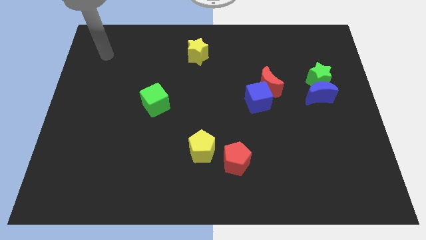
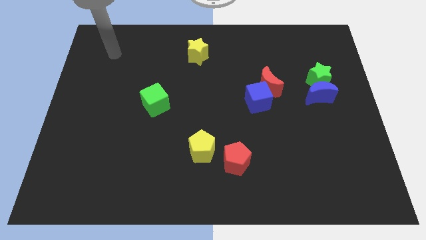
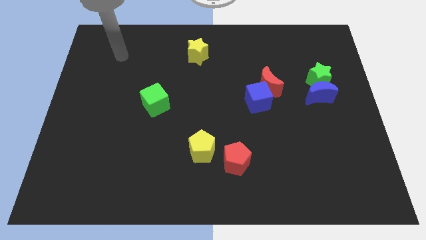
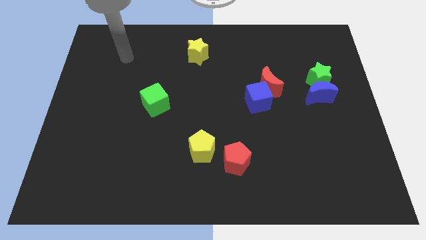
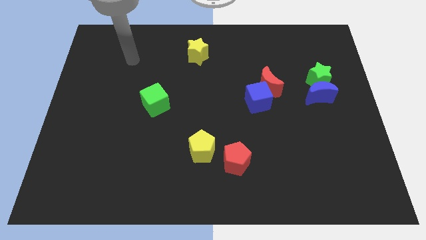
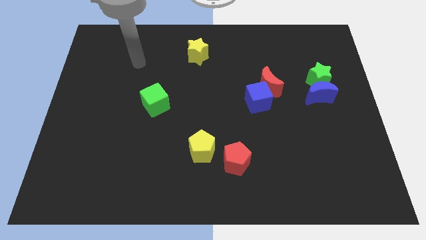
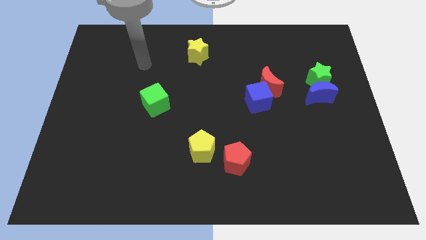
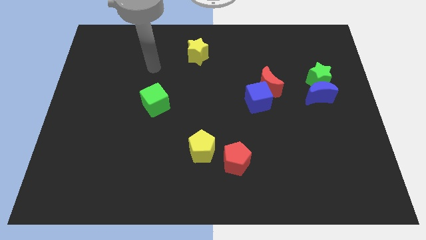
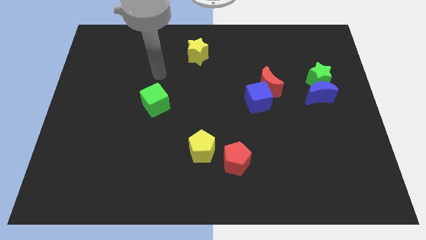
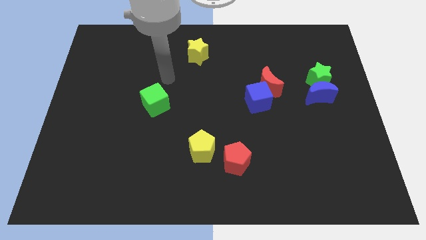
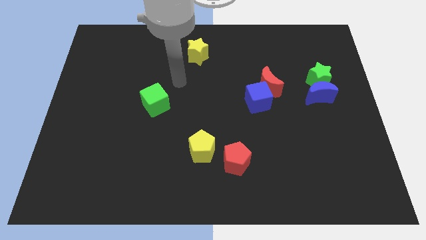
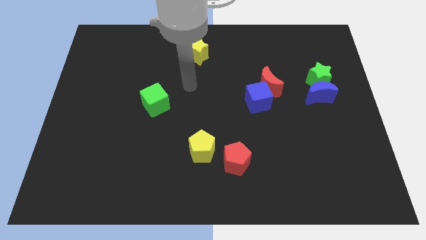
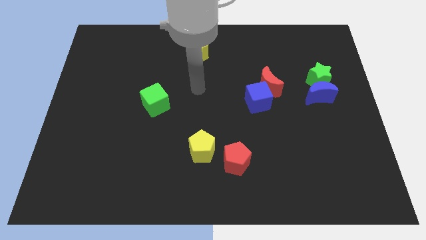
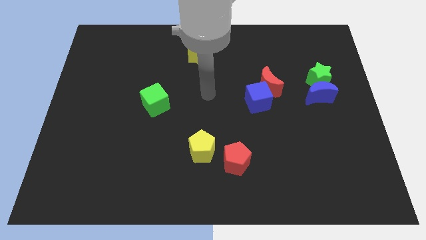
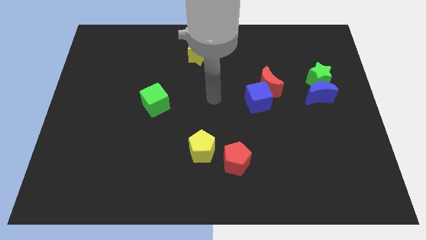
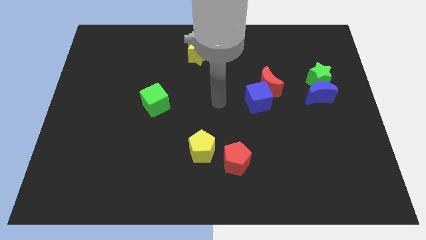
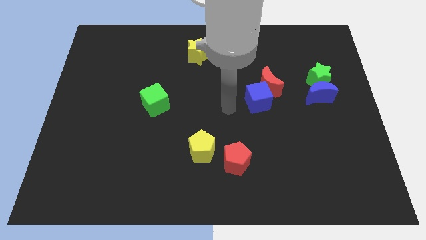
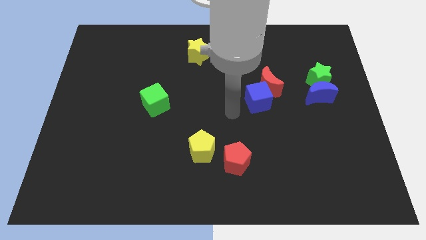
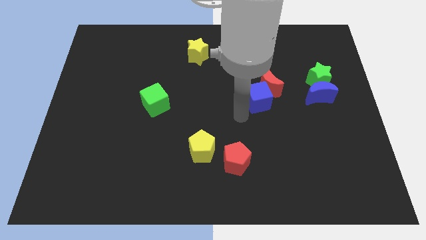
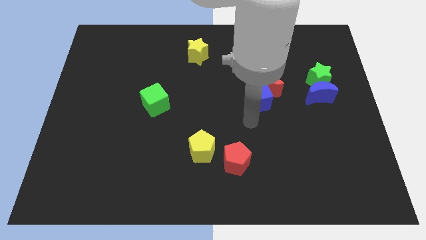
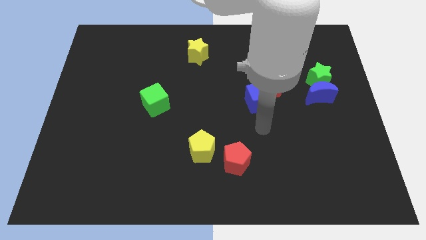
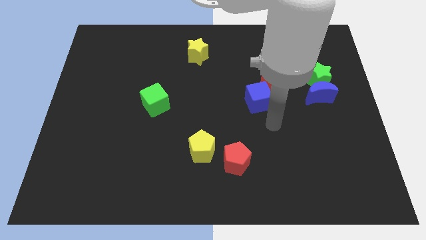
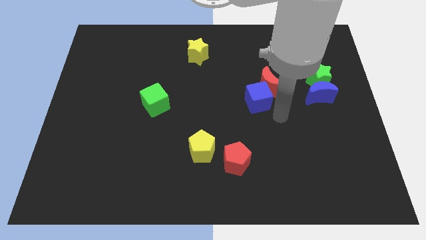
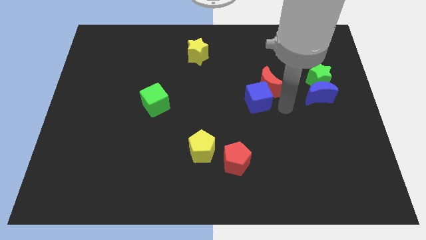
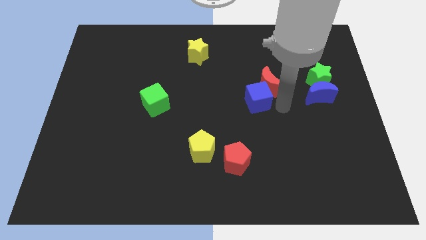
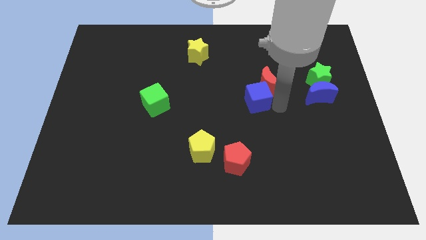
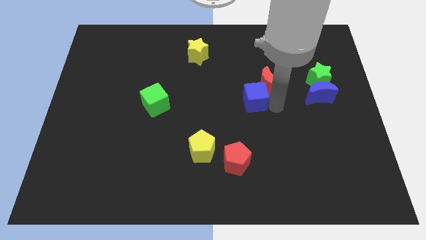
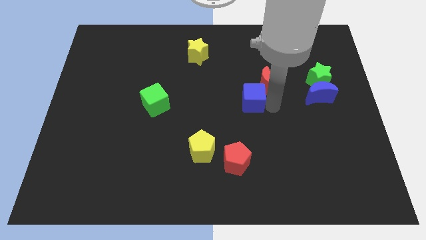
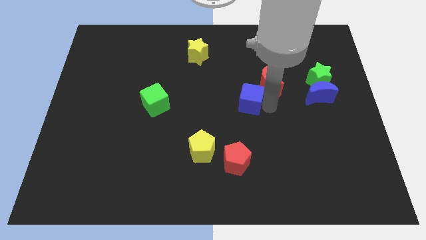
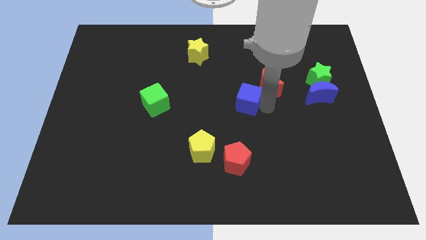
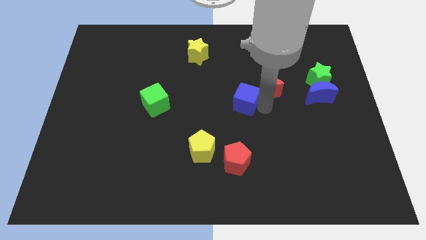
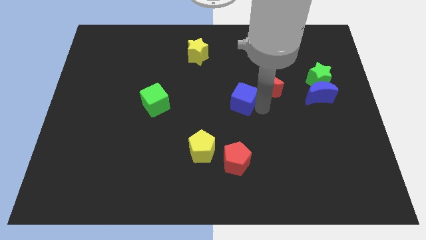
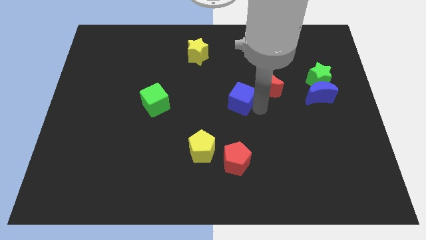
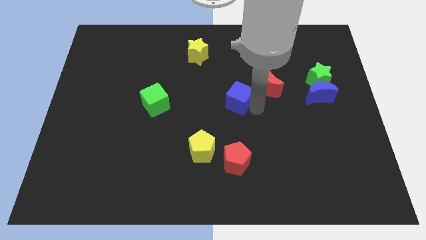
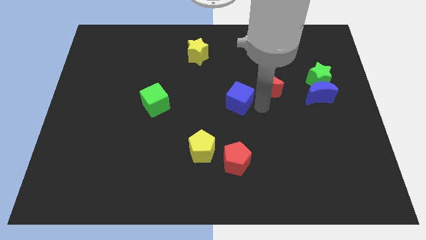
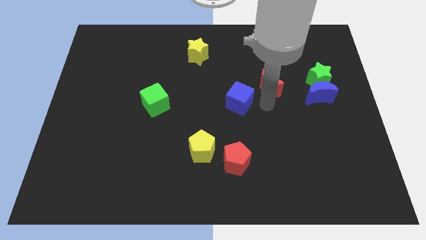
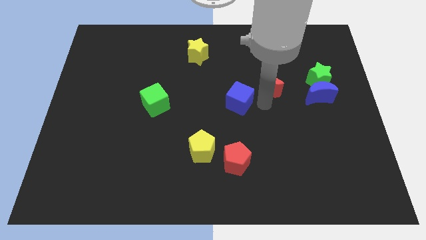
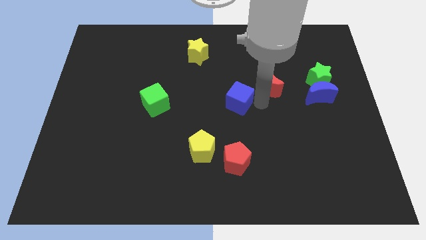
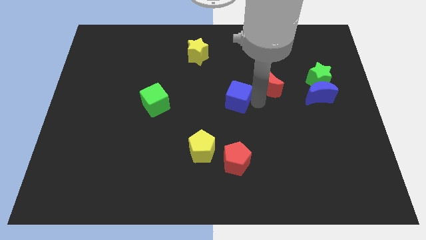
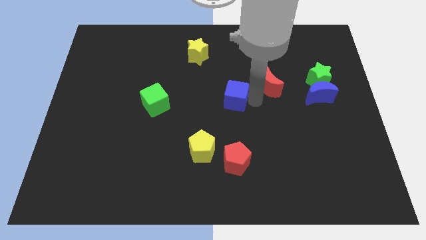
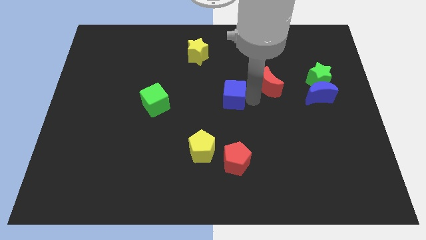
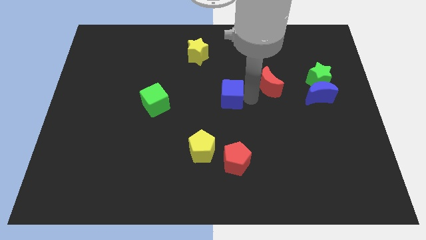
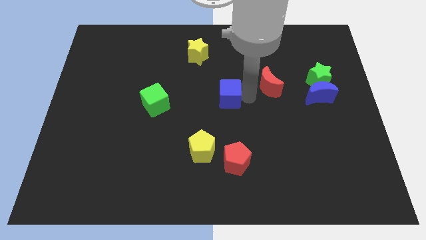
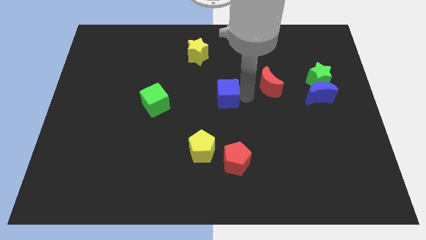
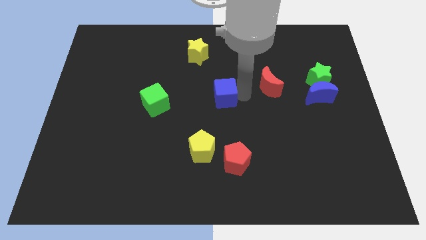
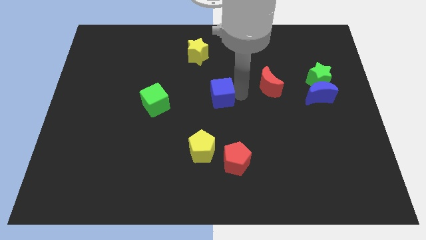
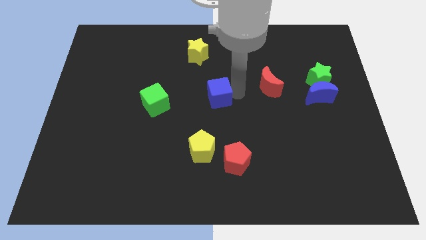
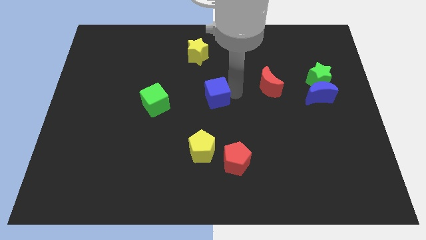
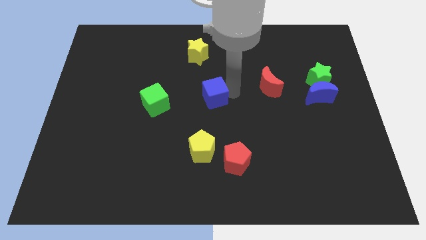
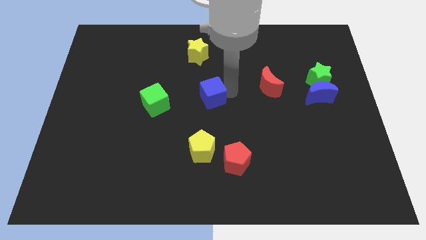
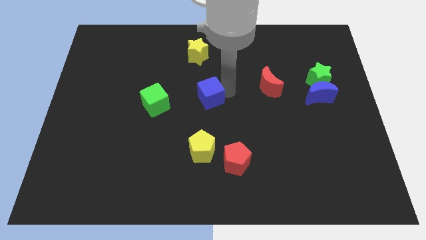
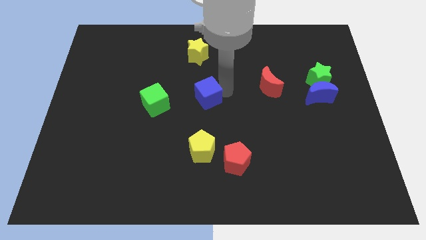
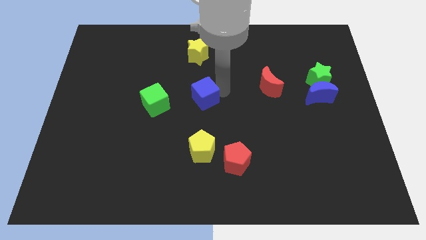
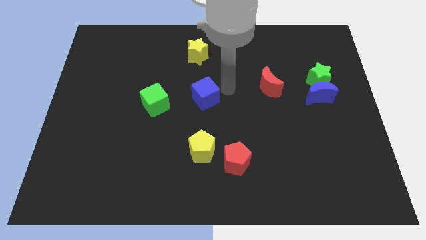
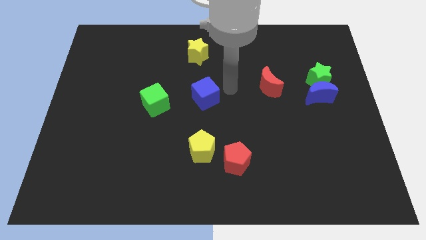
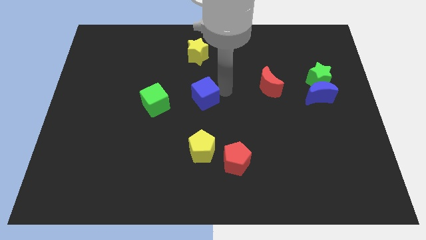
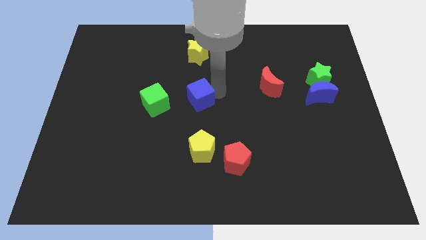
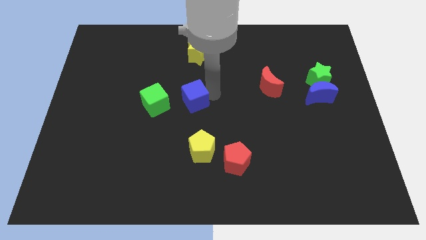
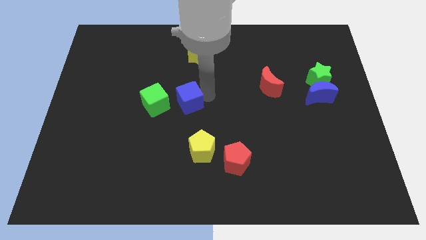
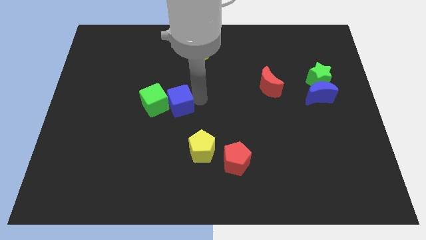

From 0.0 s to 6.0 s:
slide the blue cube towards the green cube

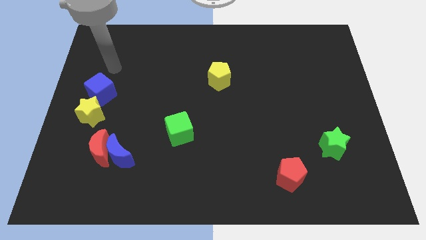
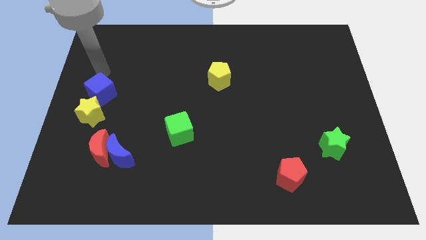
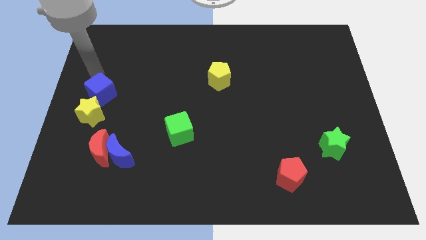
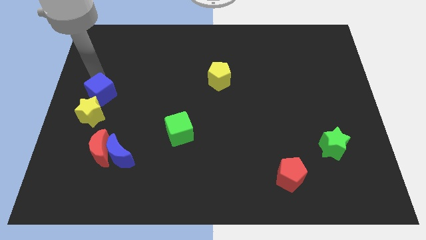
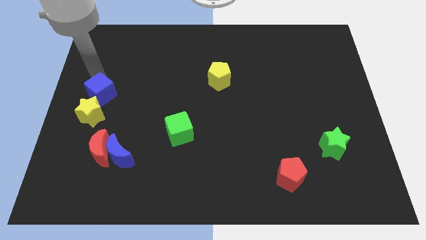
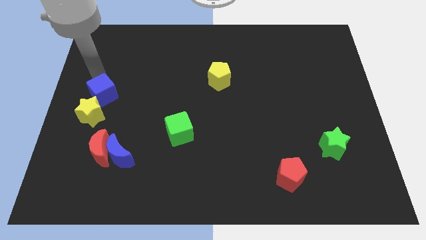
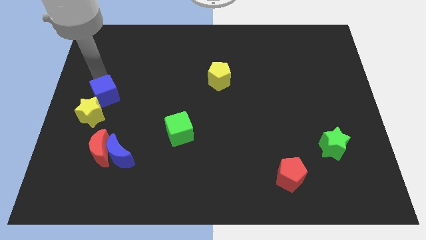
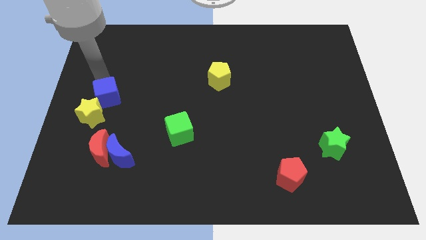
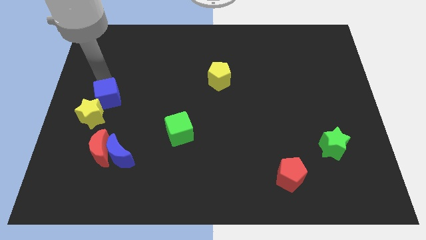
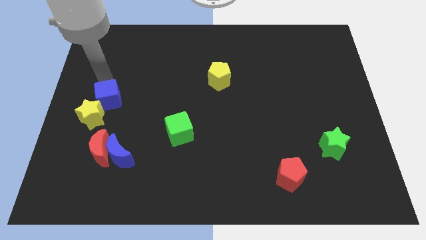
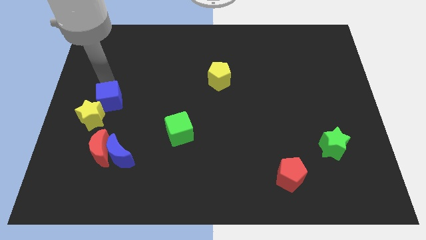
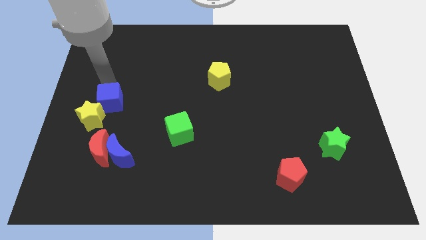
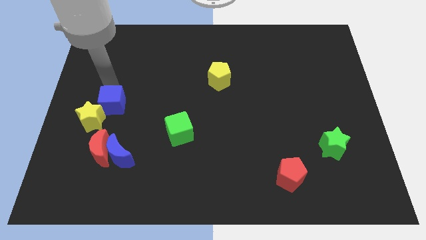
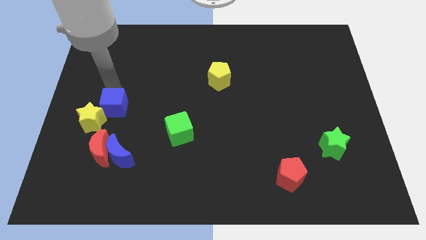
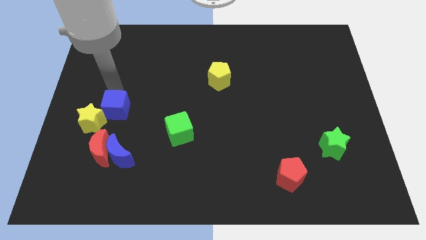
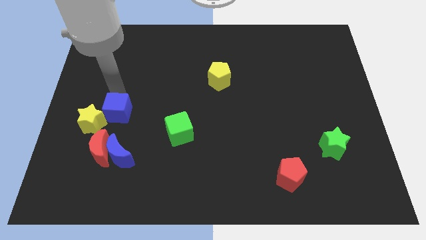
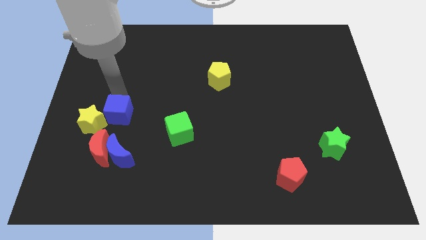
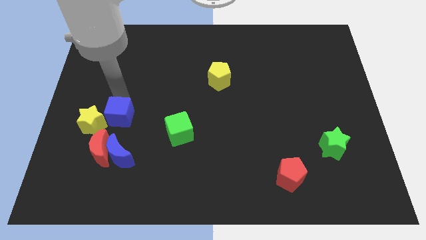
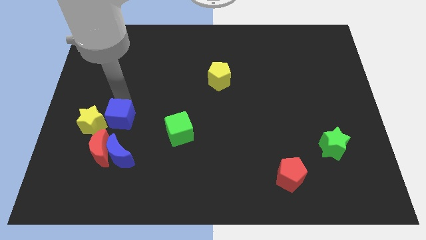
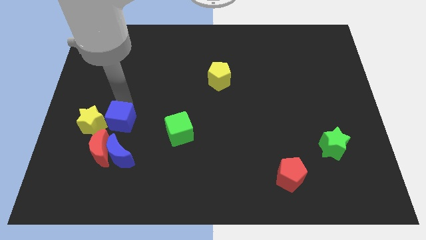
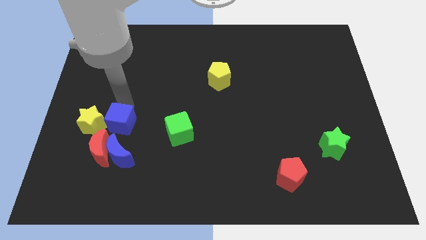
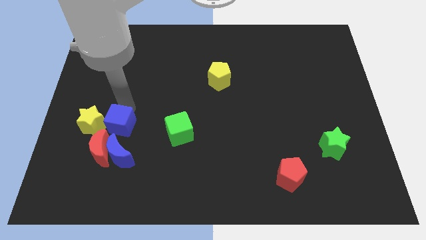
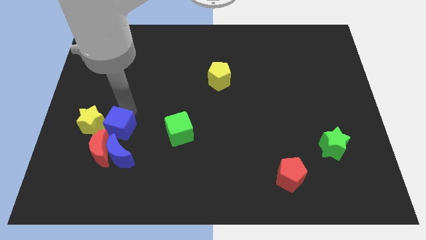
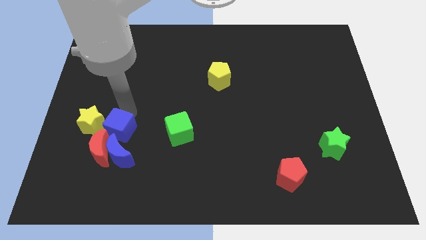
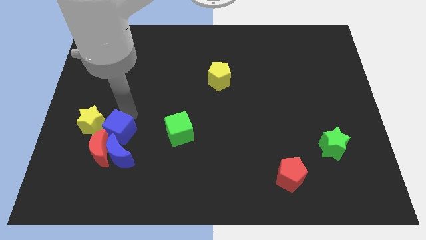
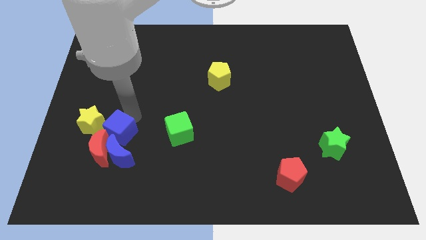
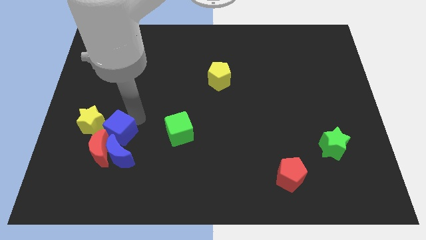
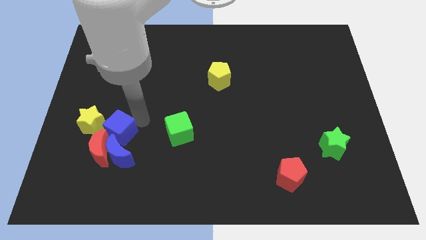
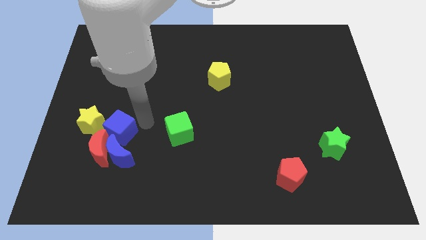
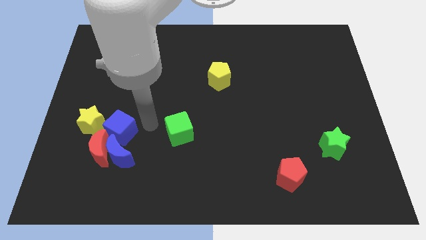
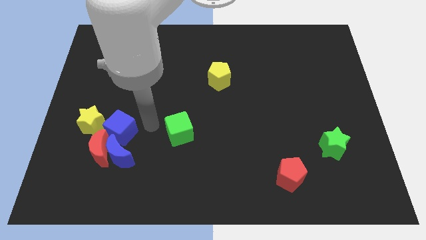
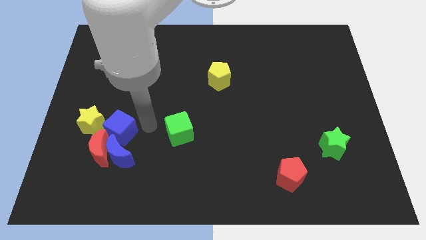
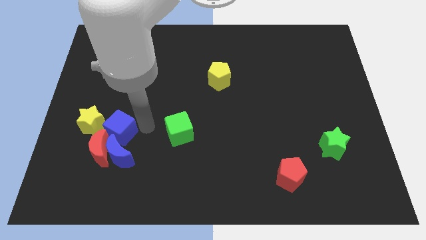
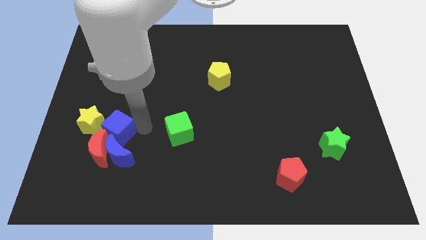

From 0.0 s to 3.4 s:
push the blue cube towards the red moon
